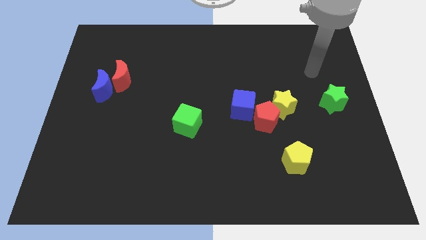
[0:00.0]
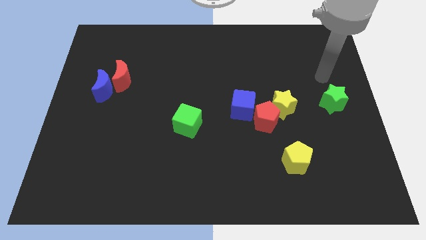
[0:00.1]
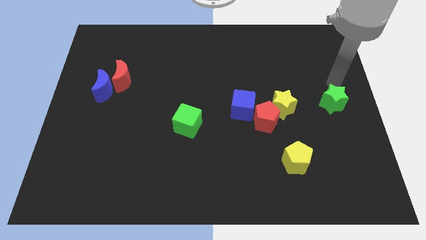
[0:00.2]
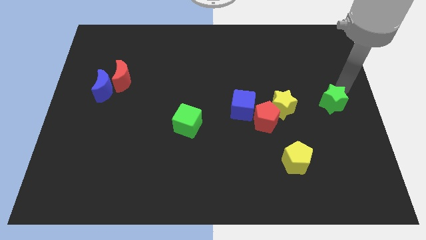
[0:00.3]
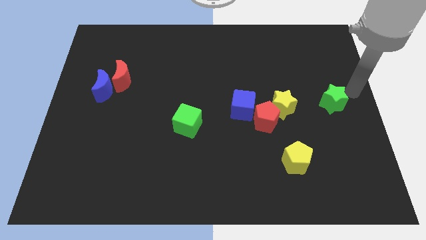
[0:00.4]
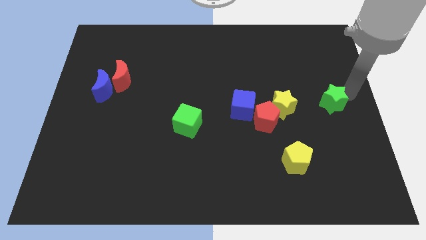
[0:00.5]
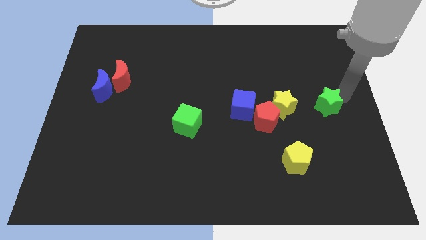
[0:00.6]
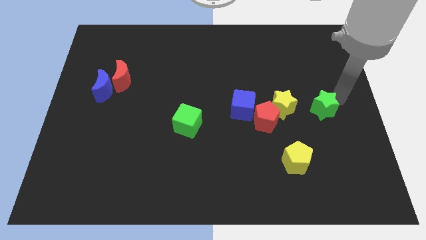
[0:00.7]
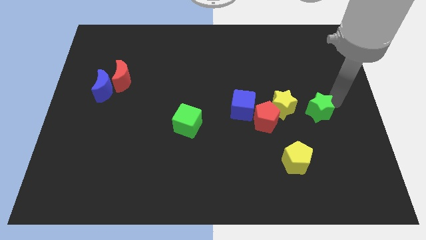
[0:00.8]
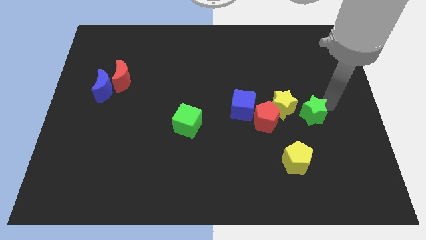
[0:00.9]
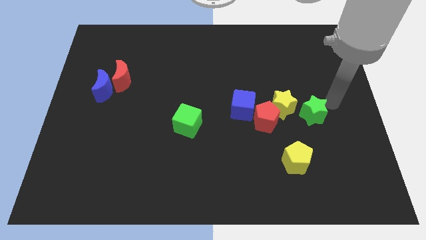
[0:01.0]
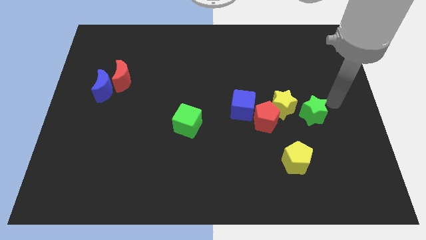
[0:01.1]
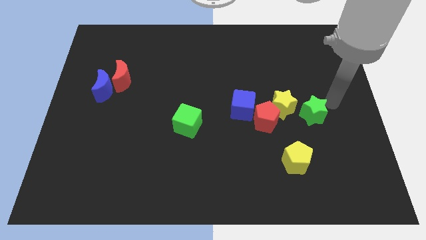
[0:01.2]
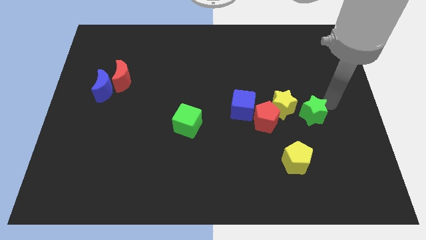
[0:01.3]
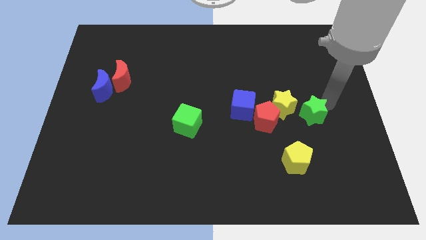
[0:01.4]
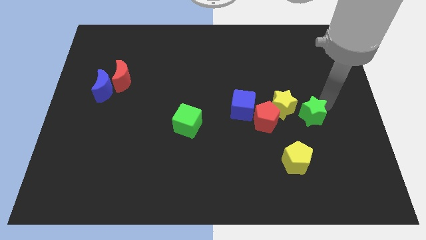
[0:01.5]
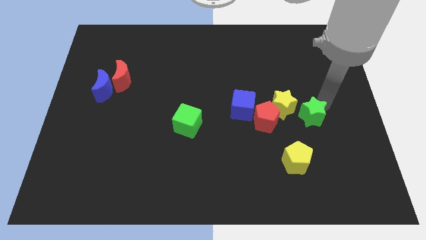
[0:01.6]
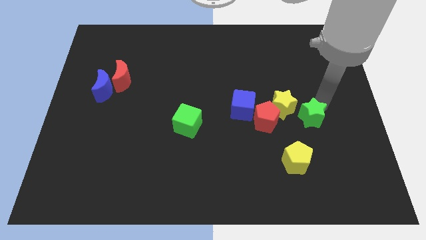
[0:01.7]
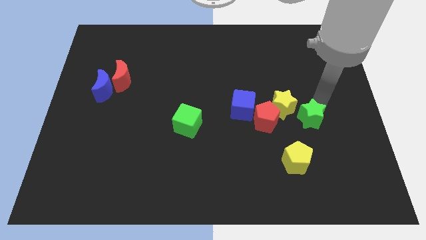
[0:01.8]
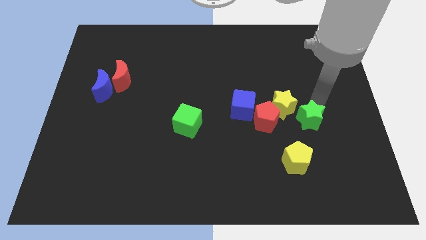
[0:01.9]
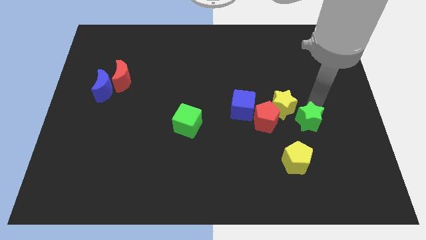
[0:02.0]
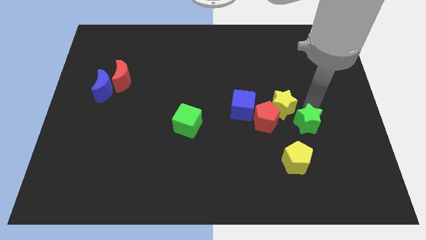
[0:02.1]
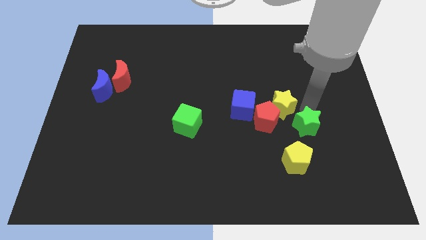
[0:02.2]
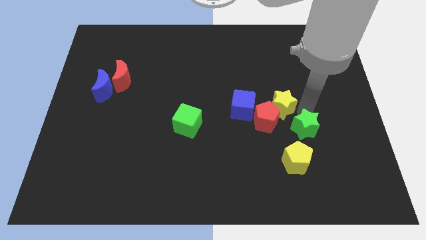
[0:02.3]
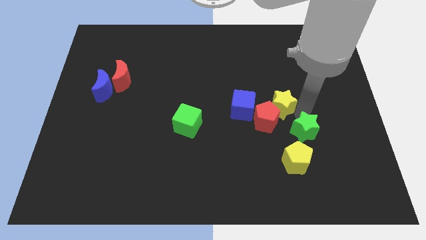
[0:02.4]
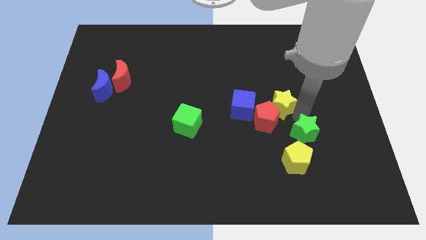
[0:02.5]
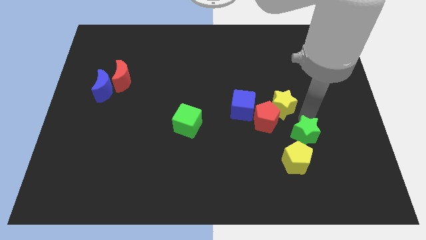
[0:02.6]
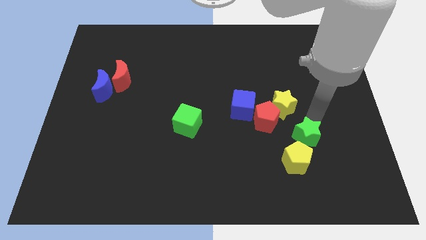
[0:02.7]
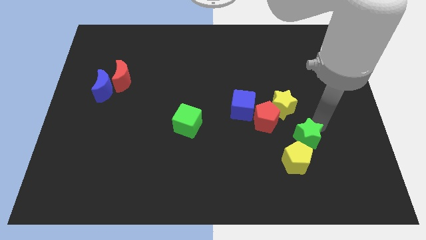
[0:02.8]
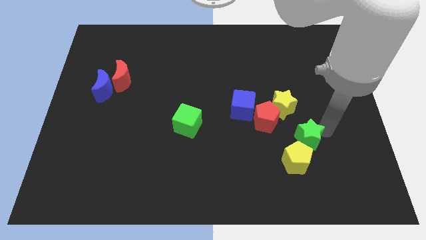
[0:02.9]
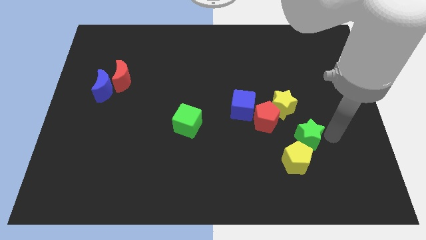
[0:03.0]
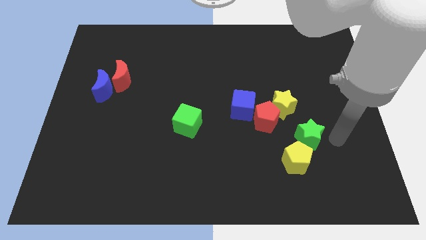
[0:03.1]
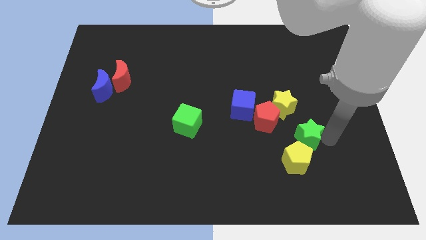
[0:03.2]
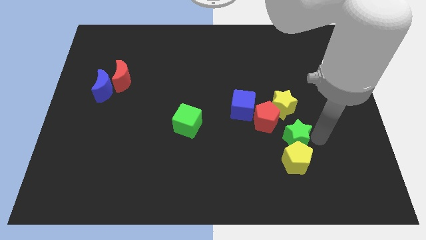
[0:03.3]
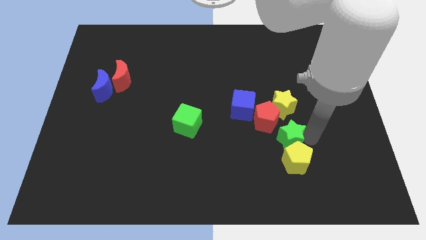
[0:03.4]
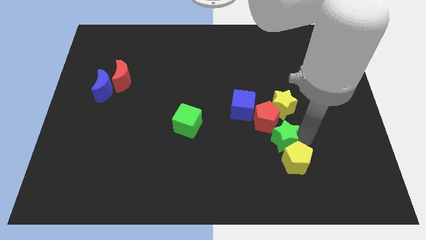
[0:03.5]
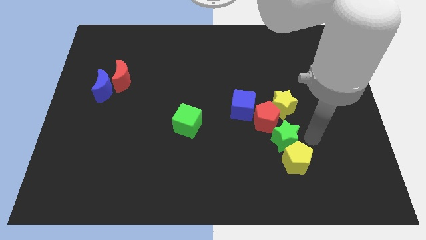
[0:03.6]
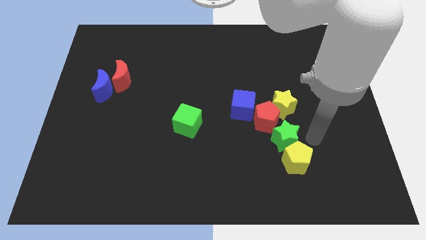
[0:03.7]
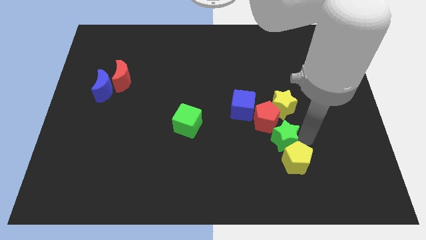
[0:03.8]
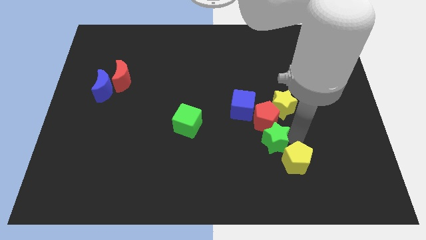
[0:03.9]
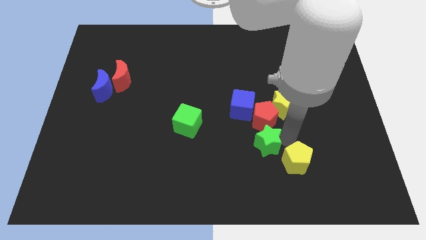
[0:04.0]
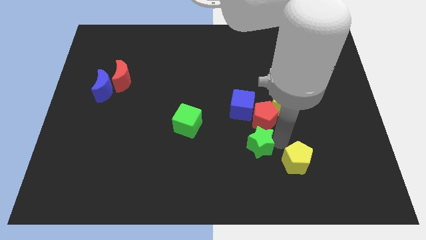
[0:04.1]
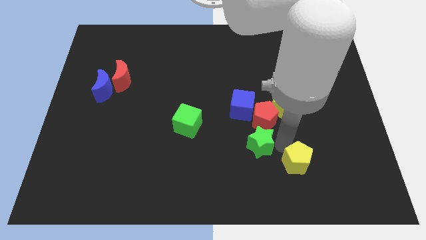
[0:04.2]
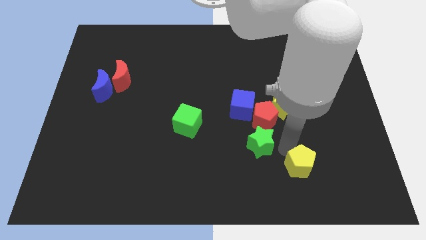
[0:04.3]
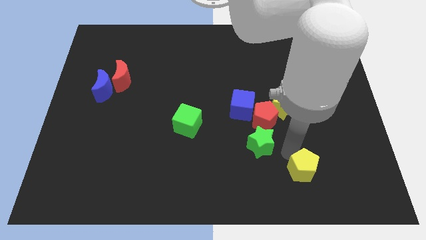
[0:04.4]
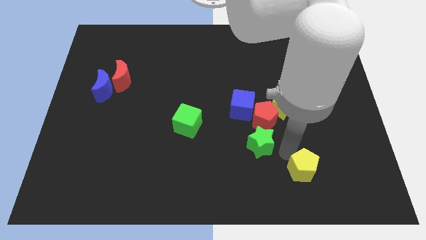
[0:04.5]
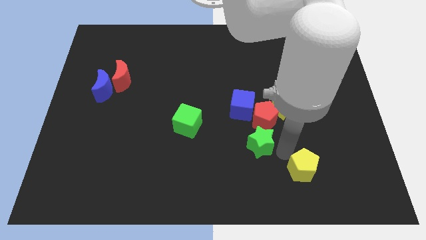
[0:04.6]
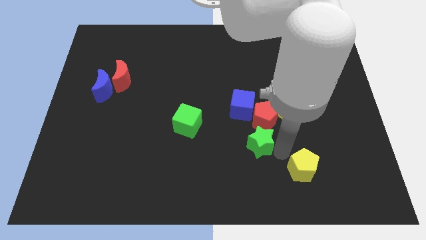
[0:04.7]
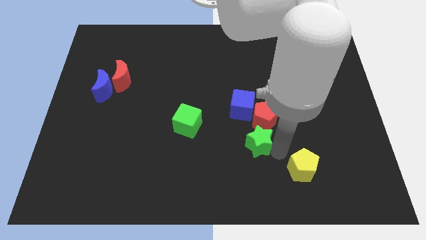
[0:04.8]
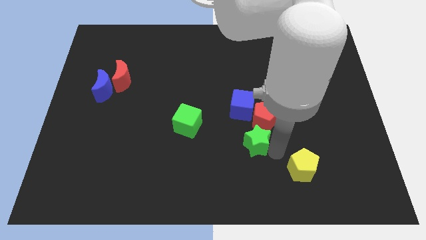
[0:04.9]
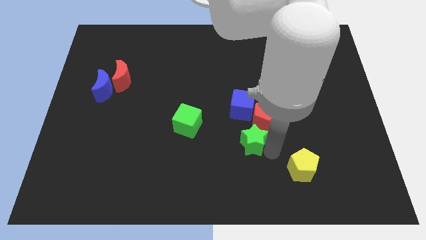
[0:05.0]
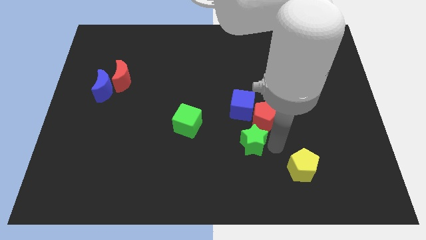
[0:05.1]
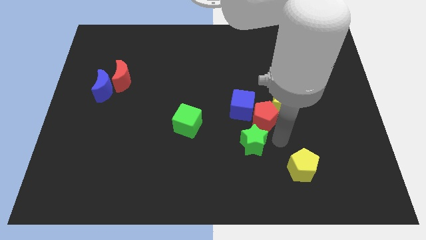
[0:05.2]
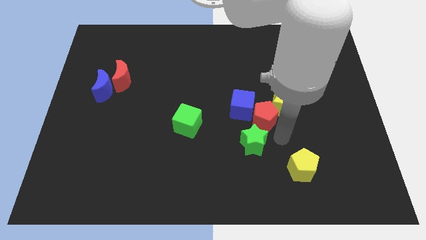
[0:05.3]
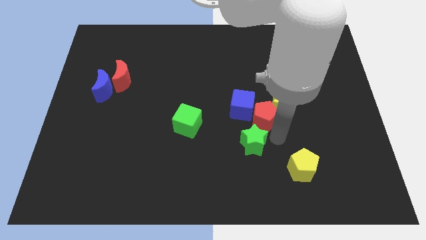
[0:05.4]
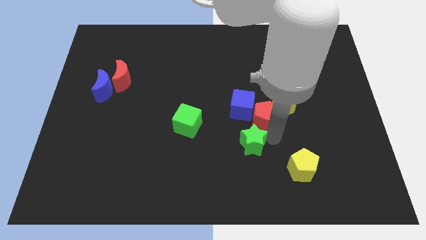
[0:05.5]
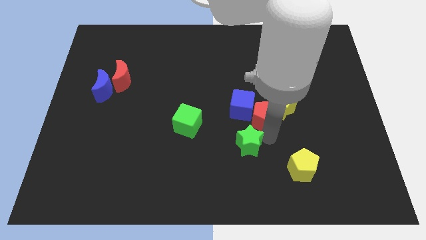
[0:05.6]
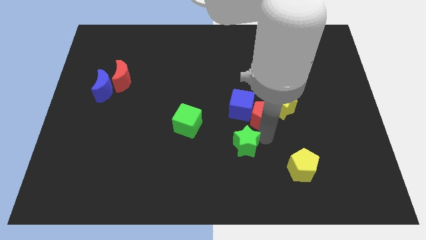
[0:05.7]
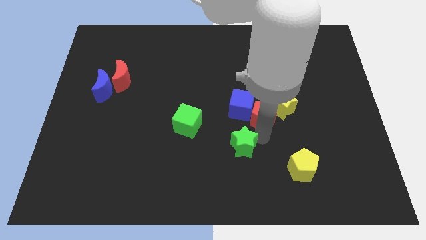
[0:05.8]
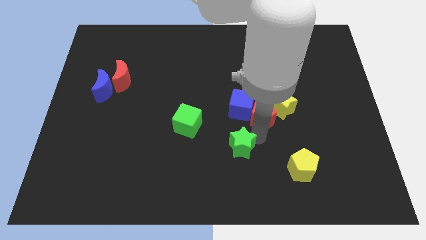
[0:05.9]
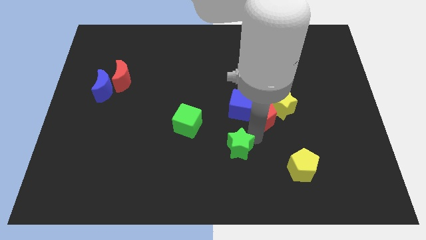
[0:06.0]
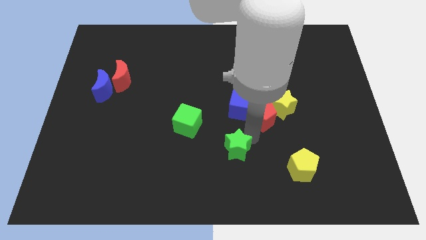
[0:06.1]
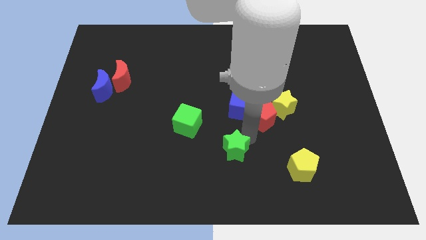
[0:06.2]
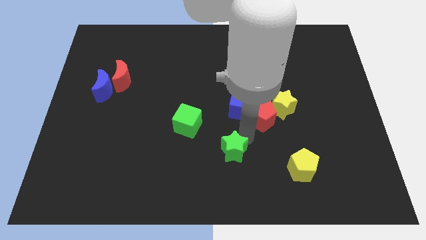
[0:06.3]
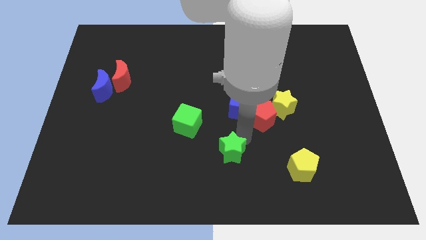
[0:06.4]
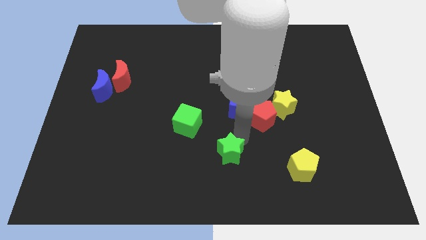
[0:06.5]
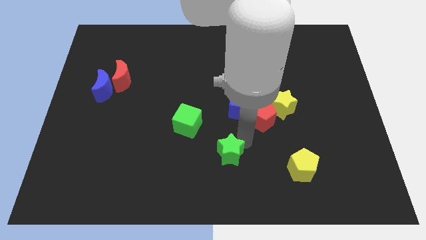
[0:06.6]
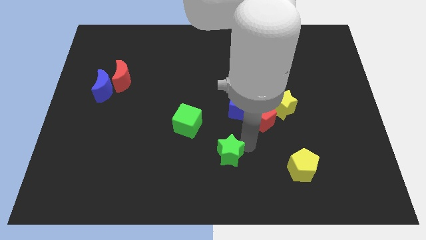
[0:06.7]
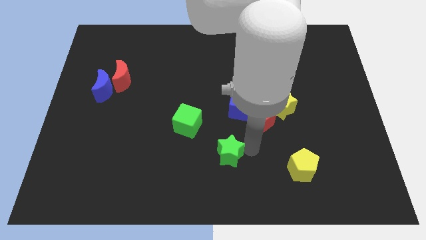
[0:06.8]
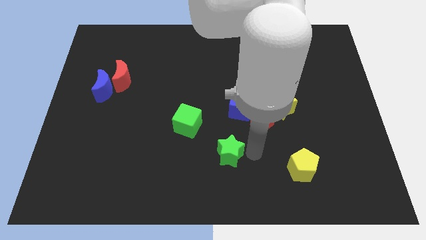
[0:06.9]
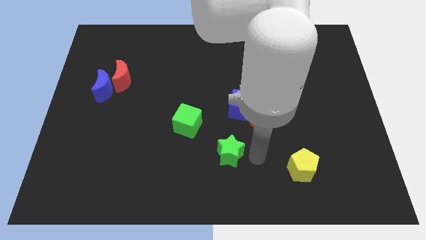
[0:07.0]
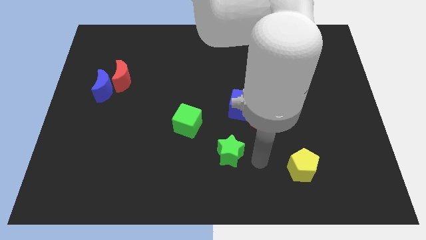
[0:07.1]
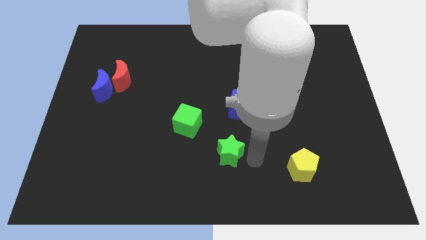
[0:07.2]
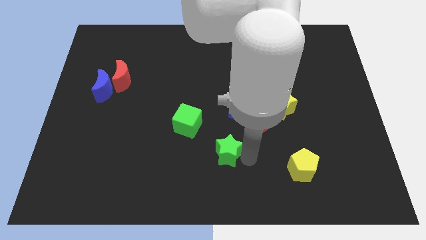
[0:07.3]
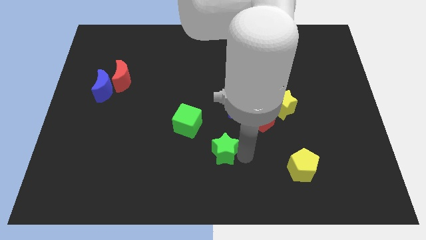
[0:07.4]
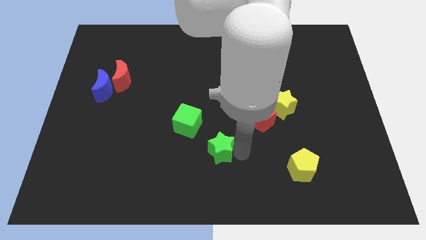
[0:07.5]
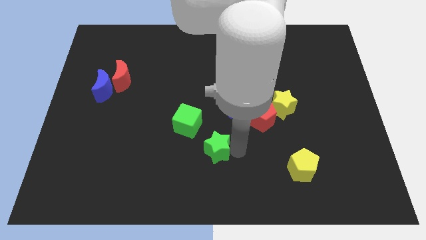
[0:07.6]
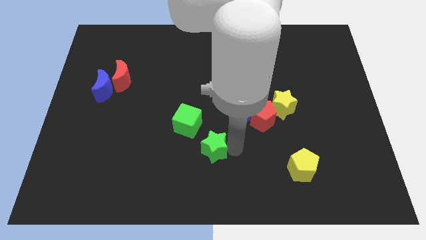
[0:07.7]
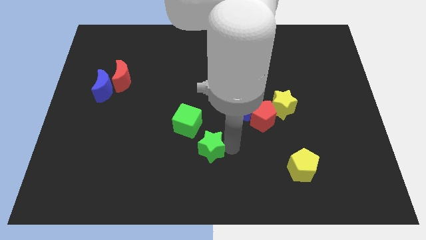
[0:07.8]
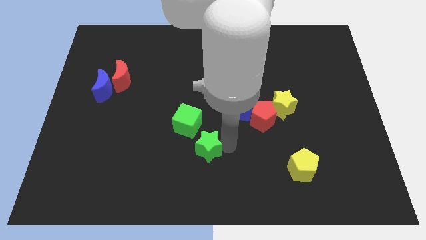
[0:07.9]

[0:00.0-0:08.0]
push the green star to the bottom of the green cube
